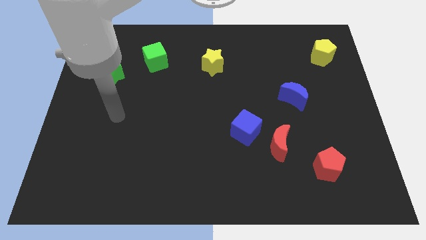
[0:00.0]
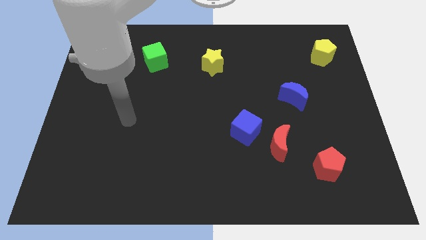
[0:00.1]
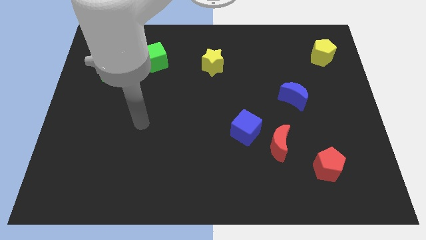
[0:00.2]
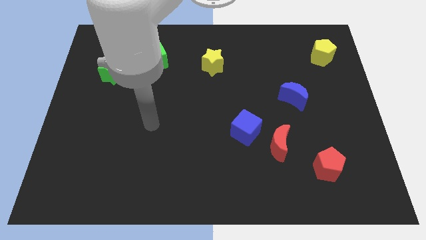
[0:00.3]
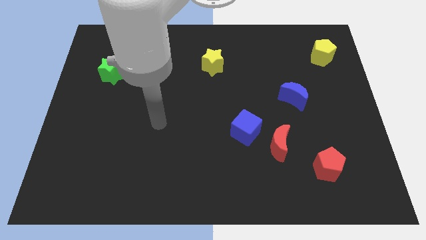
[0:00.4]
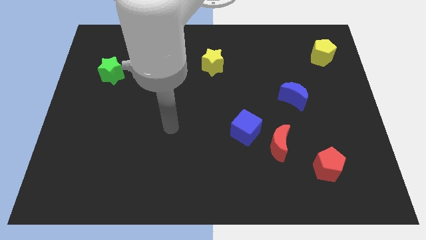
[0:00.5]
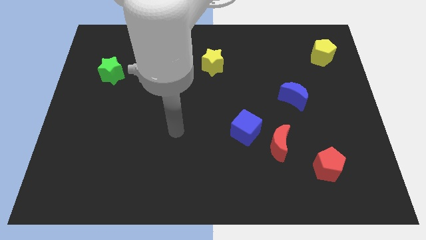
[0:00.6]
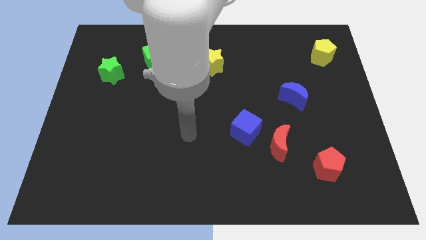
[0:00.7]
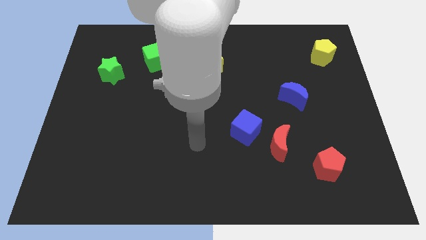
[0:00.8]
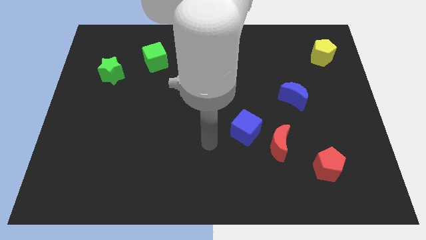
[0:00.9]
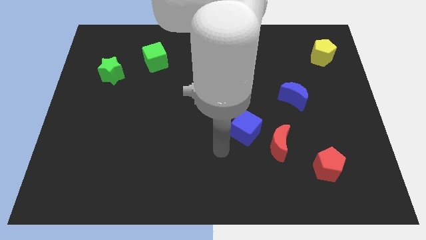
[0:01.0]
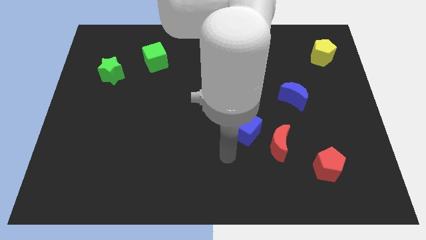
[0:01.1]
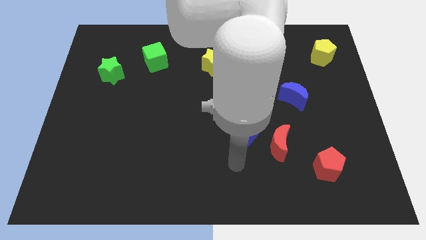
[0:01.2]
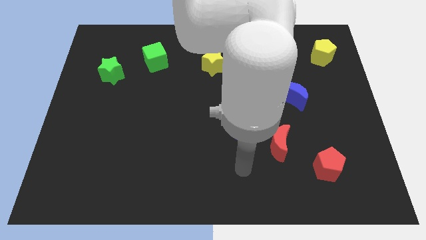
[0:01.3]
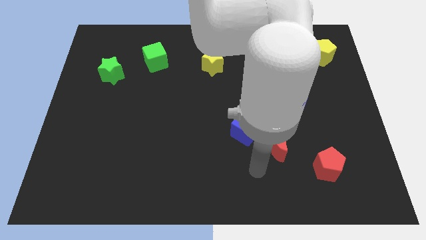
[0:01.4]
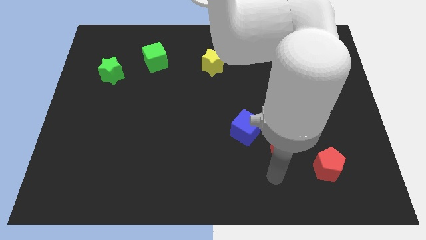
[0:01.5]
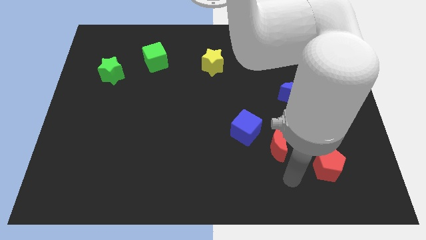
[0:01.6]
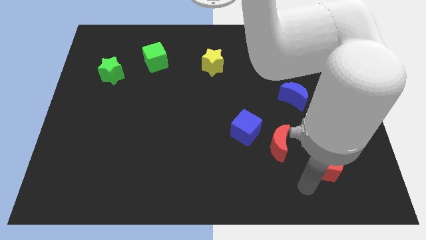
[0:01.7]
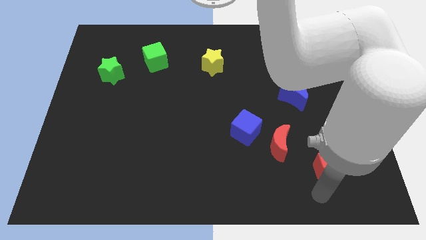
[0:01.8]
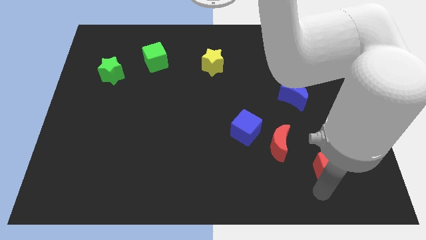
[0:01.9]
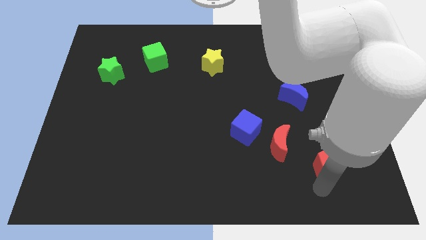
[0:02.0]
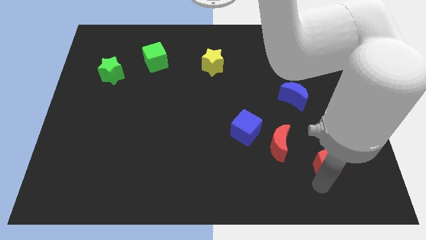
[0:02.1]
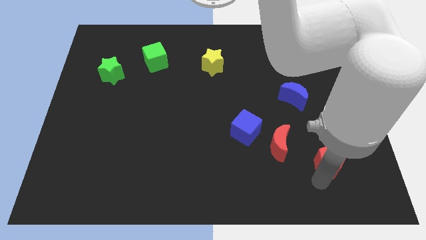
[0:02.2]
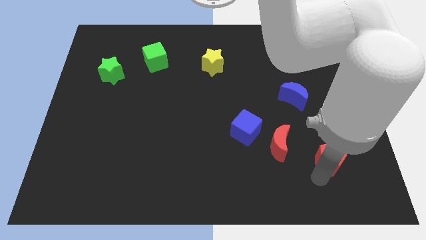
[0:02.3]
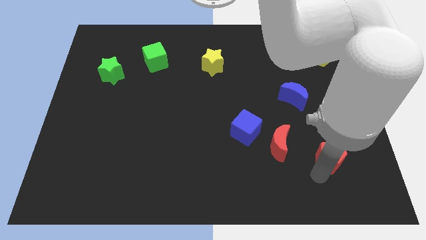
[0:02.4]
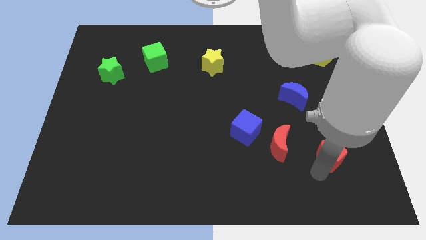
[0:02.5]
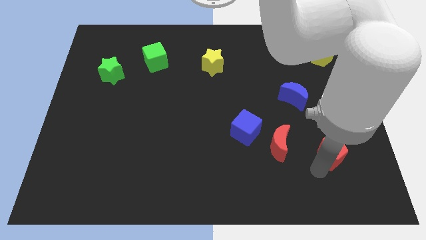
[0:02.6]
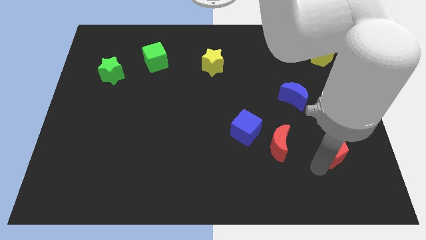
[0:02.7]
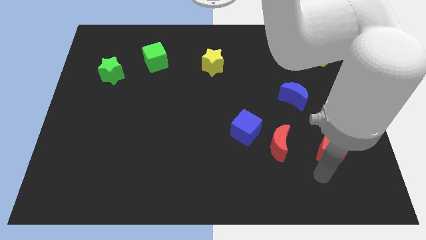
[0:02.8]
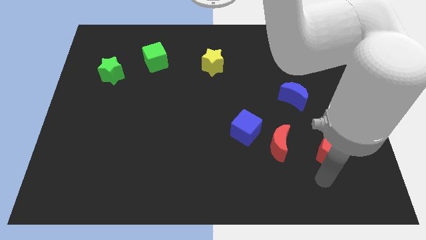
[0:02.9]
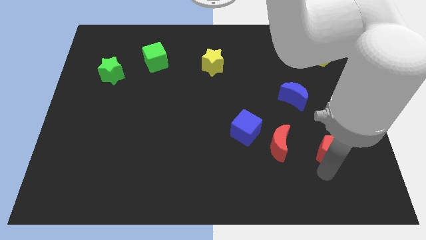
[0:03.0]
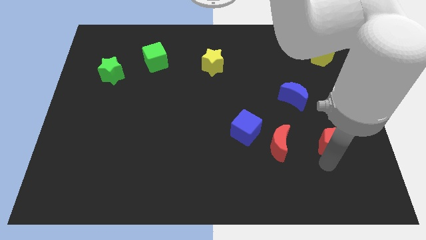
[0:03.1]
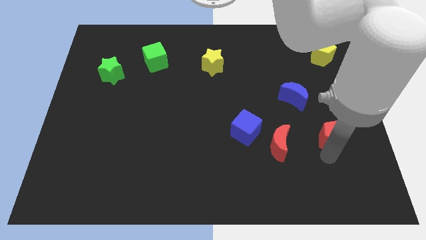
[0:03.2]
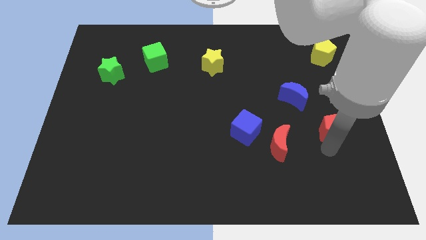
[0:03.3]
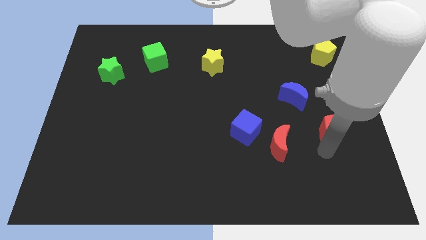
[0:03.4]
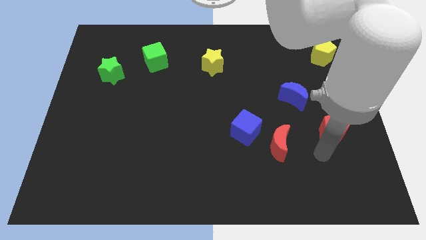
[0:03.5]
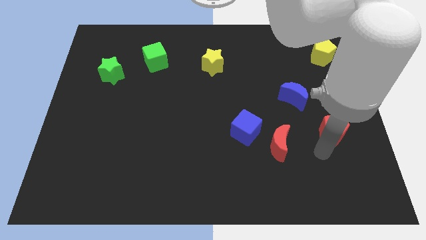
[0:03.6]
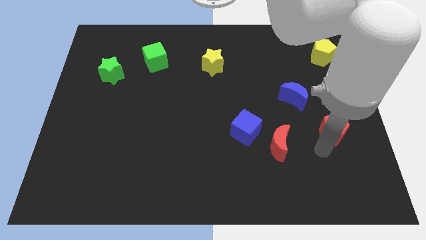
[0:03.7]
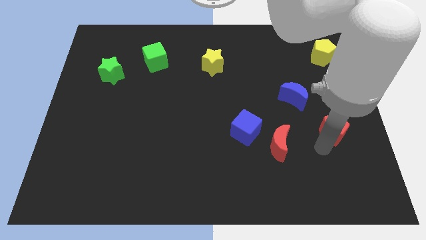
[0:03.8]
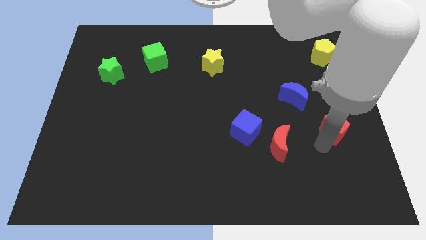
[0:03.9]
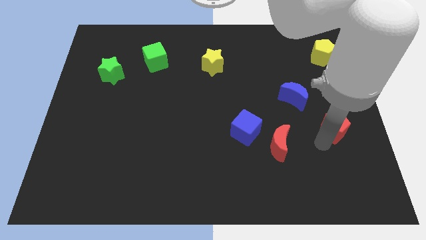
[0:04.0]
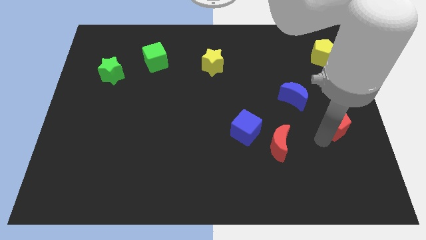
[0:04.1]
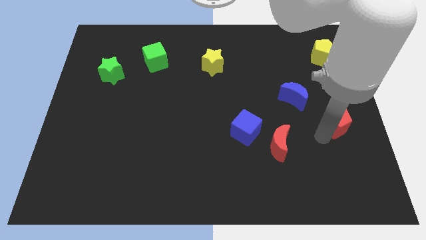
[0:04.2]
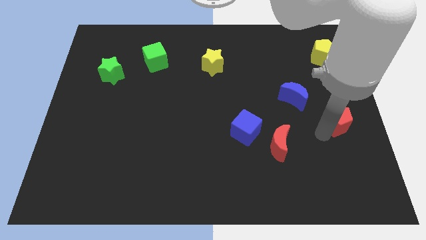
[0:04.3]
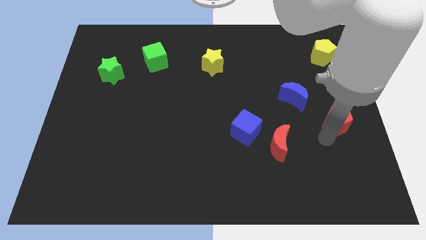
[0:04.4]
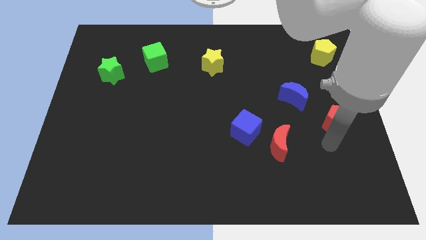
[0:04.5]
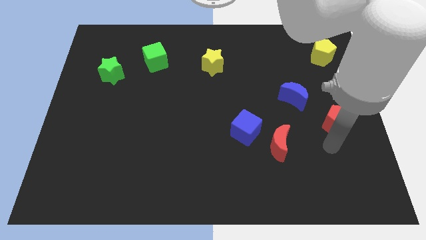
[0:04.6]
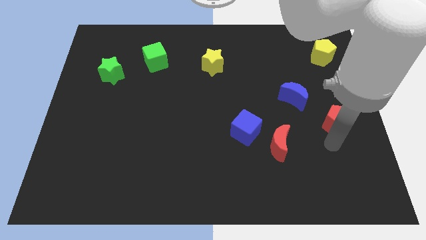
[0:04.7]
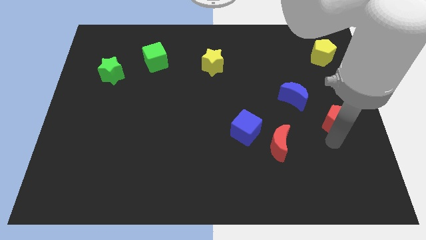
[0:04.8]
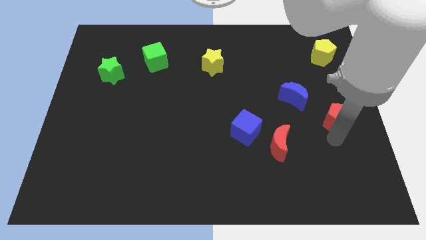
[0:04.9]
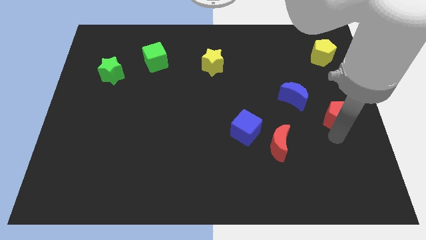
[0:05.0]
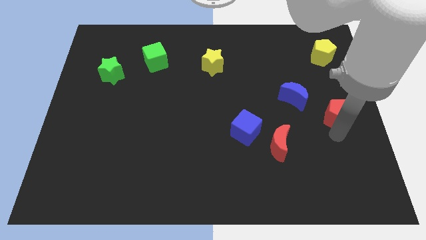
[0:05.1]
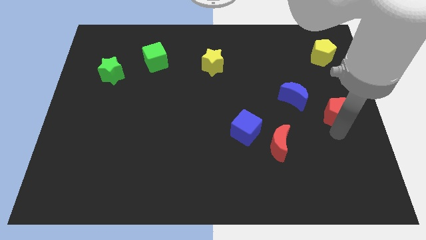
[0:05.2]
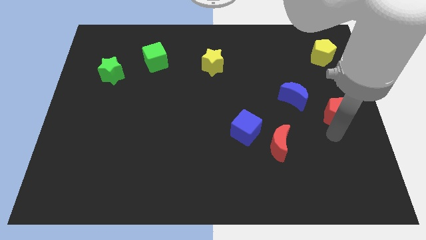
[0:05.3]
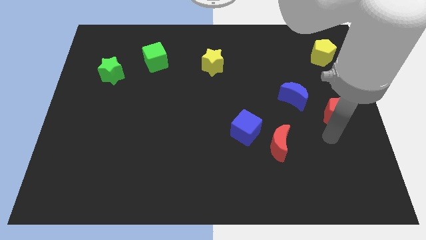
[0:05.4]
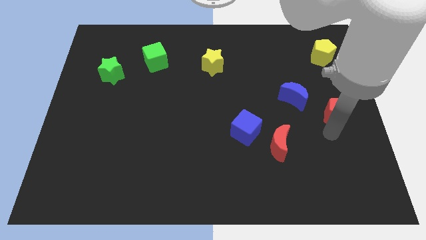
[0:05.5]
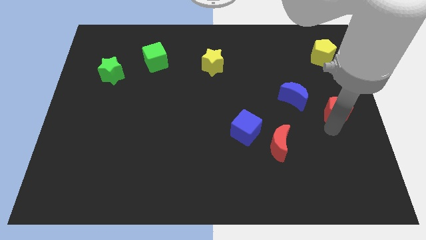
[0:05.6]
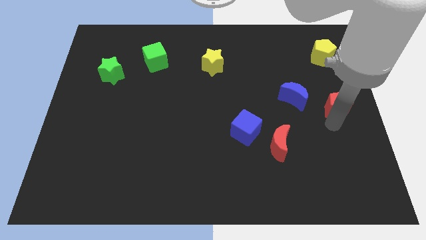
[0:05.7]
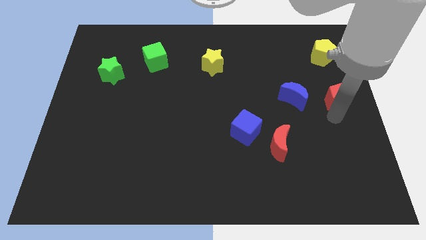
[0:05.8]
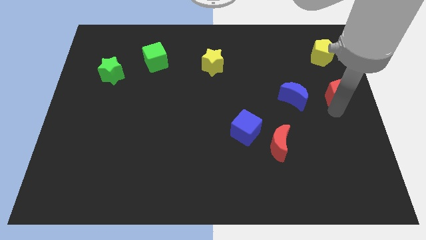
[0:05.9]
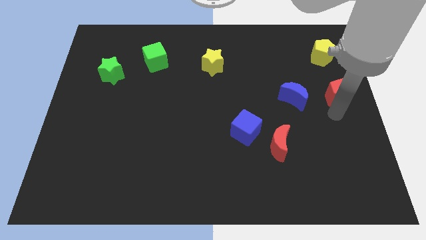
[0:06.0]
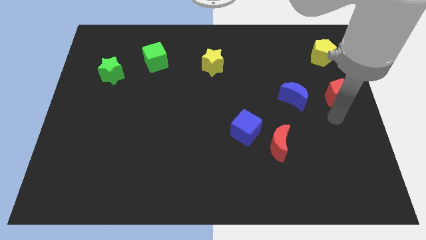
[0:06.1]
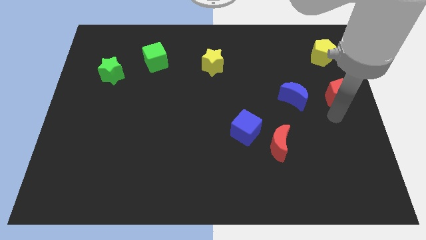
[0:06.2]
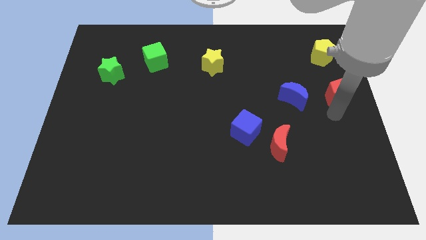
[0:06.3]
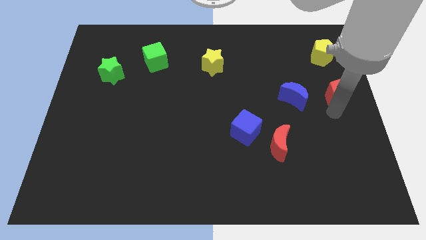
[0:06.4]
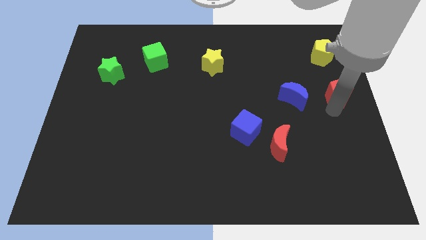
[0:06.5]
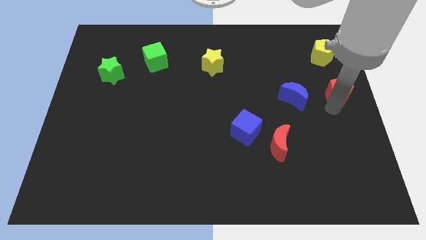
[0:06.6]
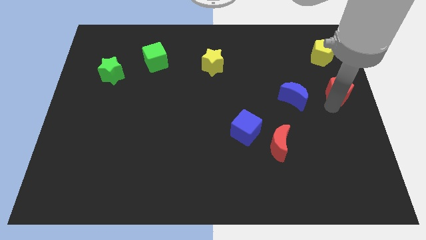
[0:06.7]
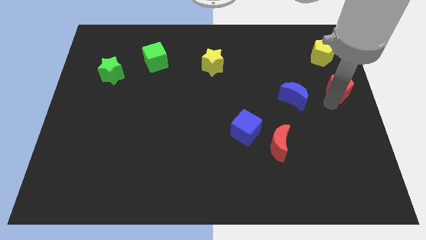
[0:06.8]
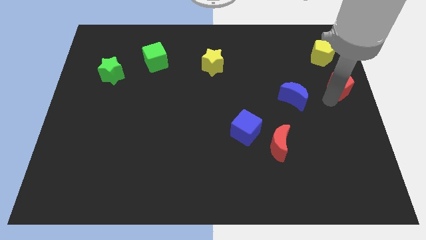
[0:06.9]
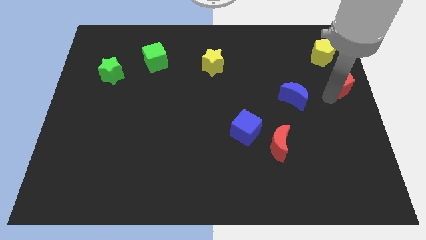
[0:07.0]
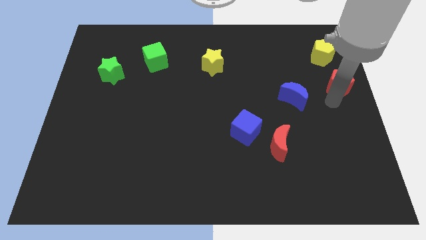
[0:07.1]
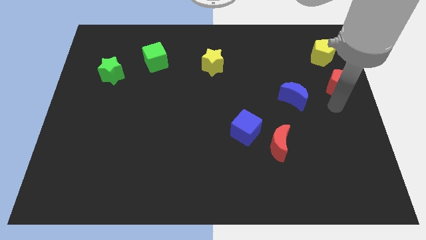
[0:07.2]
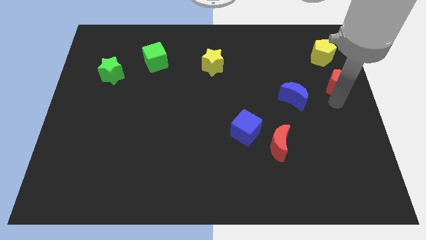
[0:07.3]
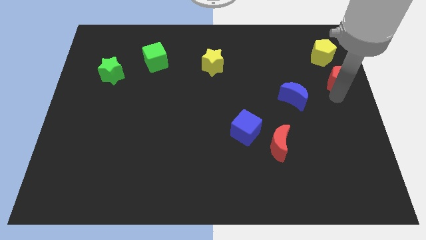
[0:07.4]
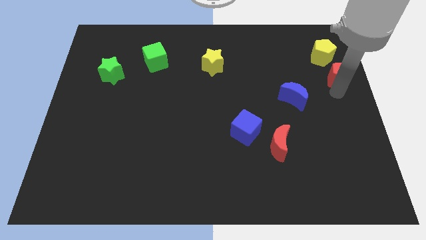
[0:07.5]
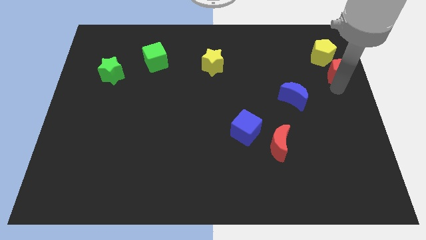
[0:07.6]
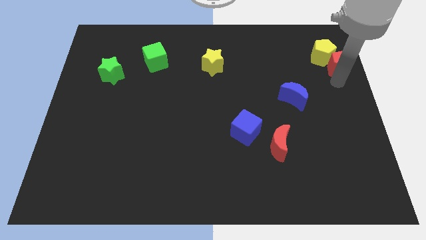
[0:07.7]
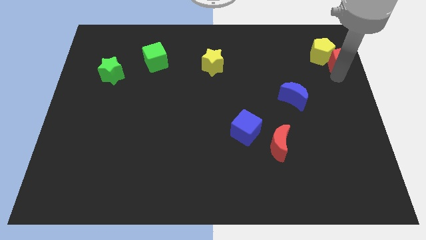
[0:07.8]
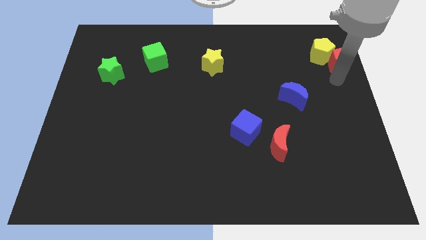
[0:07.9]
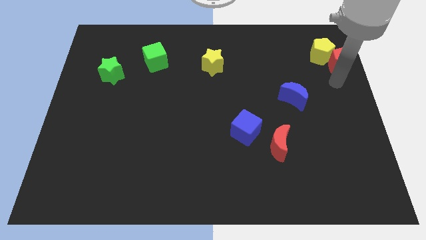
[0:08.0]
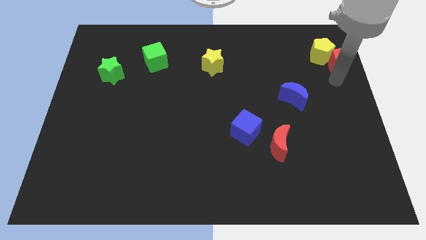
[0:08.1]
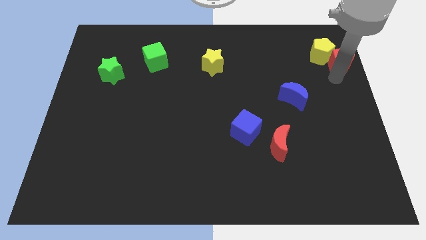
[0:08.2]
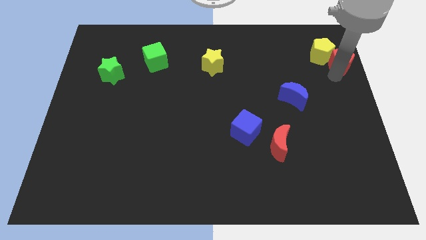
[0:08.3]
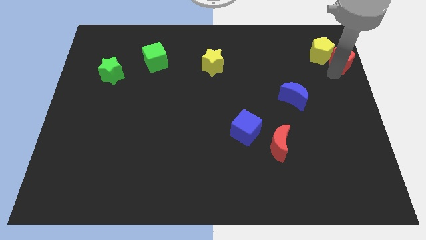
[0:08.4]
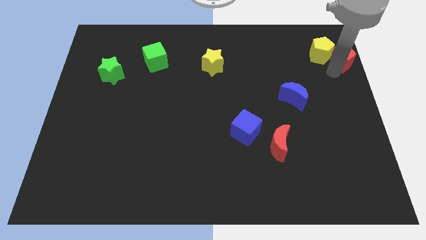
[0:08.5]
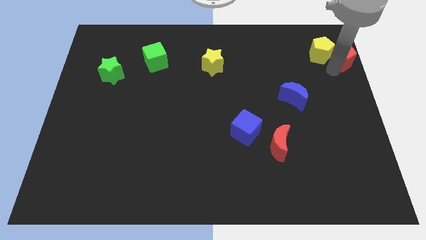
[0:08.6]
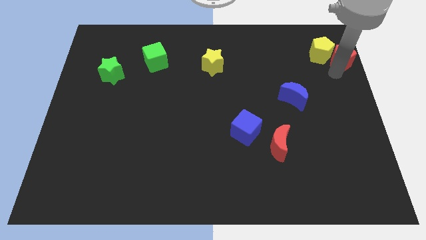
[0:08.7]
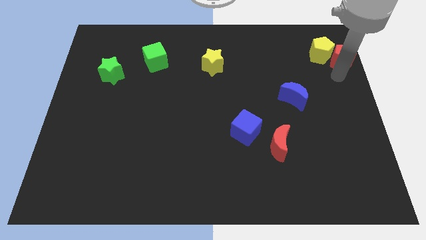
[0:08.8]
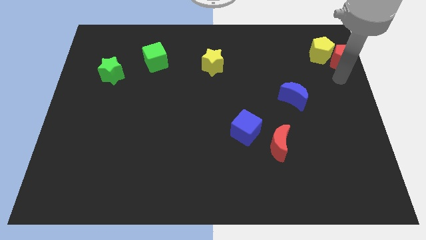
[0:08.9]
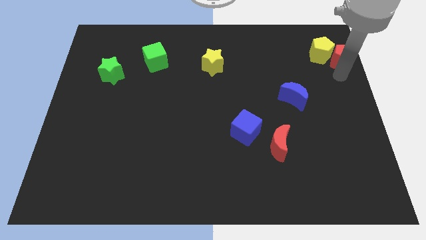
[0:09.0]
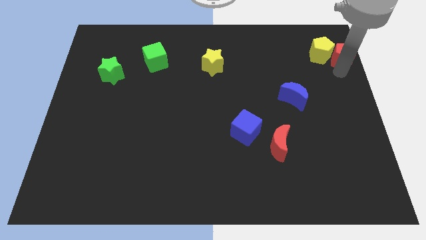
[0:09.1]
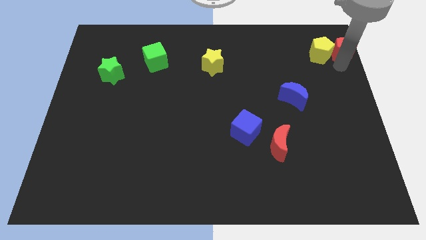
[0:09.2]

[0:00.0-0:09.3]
move the red pentagon to the top right corner
